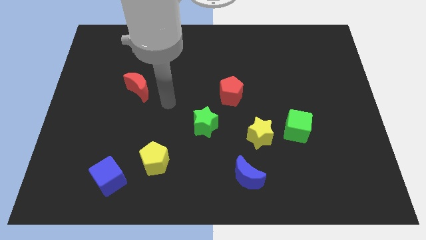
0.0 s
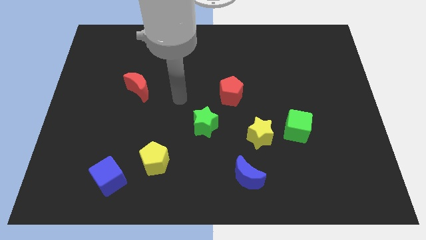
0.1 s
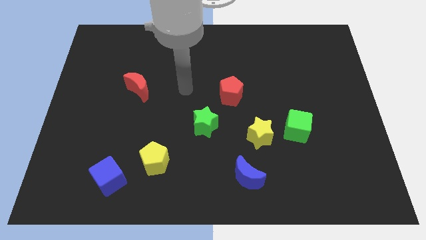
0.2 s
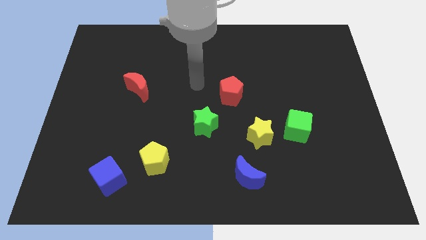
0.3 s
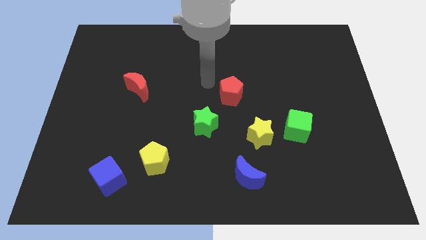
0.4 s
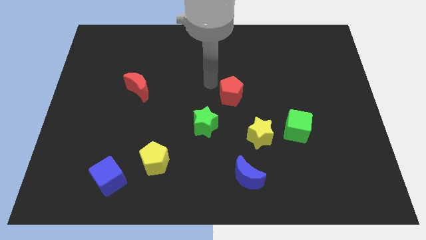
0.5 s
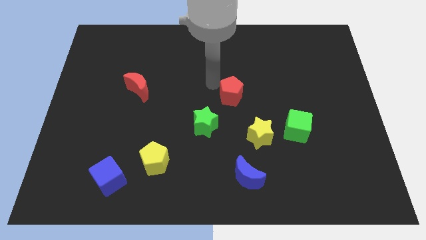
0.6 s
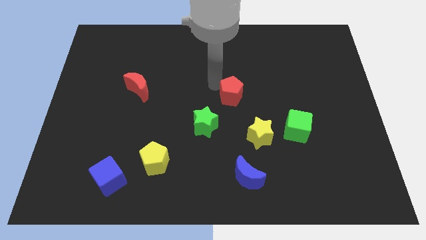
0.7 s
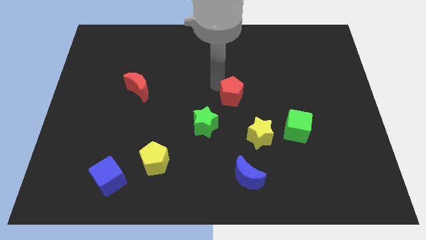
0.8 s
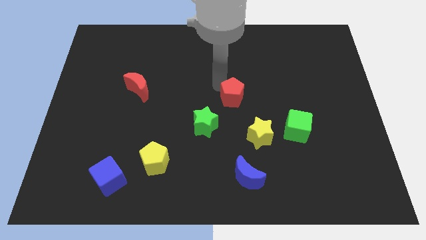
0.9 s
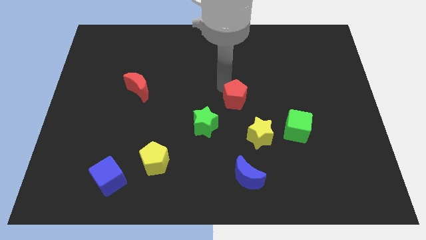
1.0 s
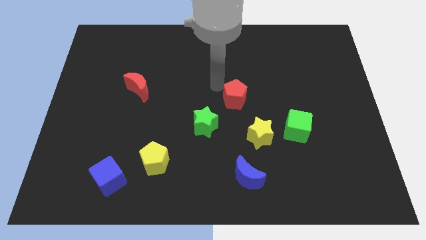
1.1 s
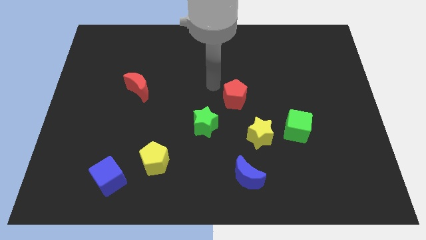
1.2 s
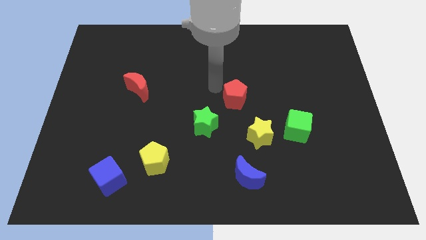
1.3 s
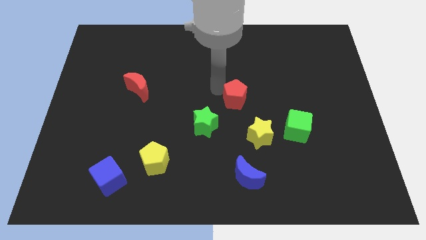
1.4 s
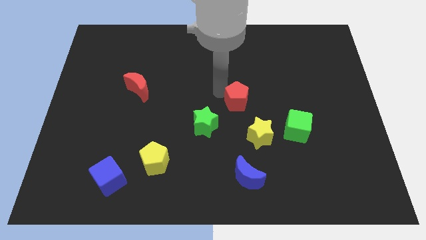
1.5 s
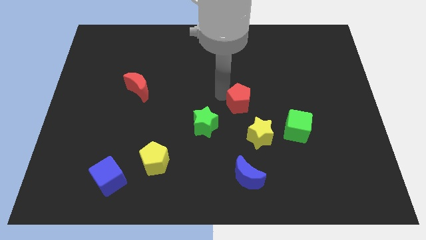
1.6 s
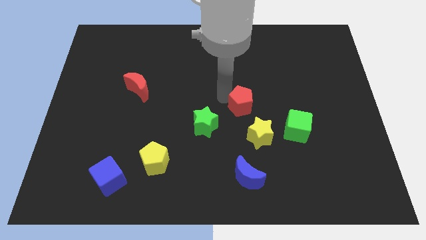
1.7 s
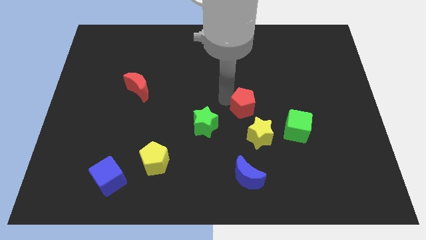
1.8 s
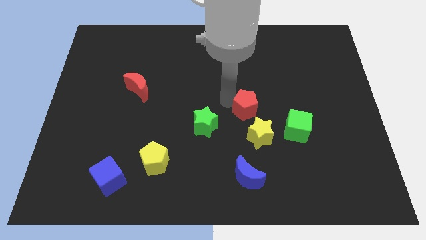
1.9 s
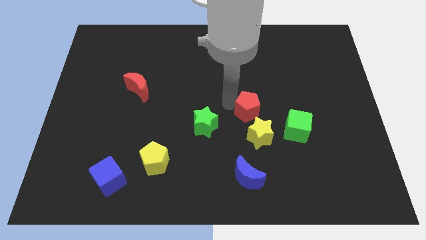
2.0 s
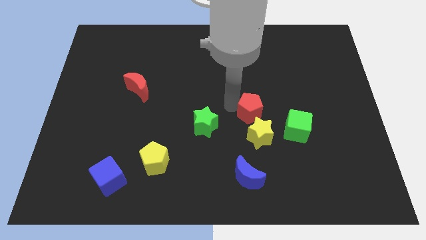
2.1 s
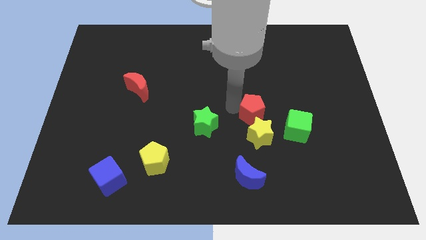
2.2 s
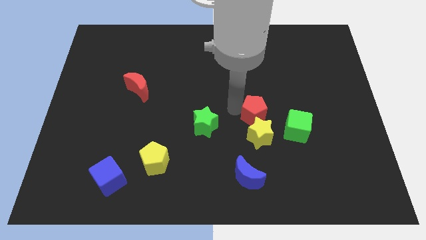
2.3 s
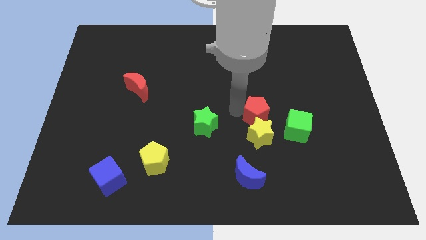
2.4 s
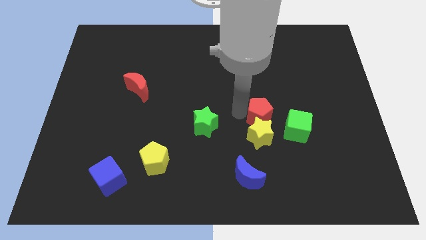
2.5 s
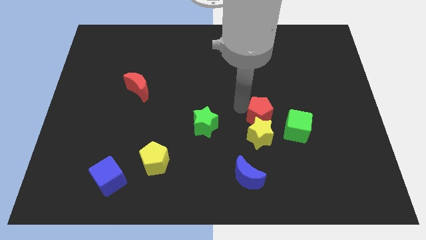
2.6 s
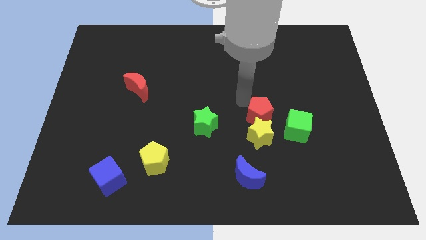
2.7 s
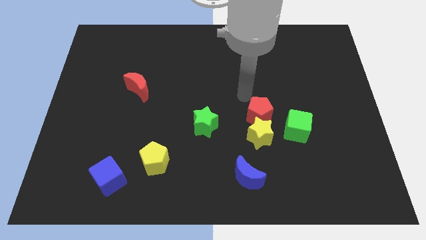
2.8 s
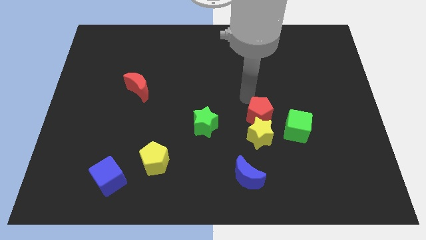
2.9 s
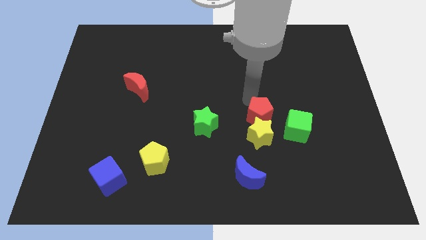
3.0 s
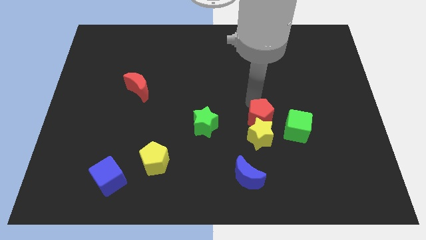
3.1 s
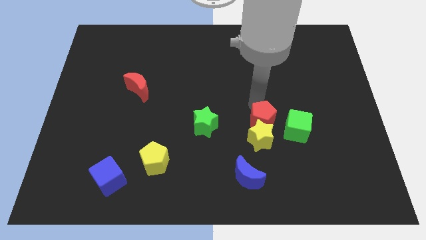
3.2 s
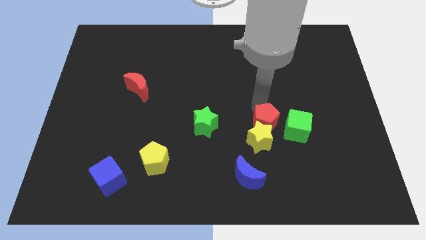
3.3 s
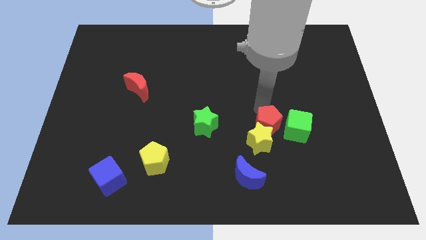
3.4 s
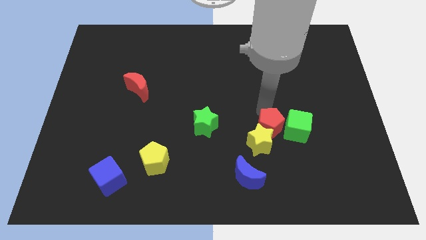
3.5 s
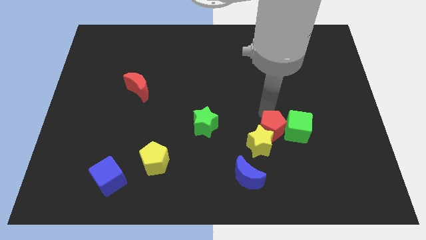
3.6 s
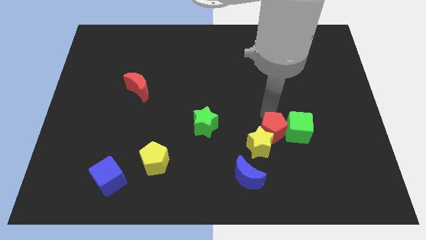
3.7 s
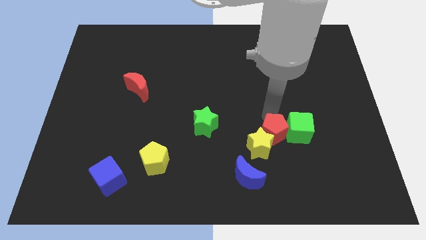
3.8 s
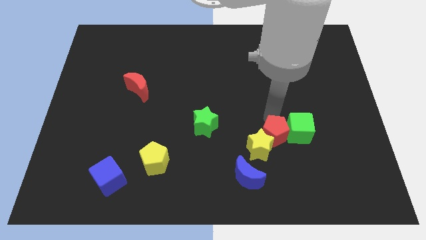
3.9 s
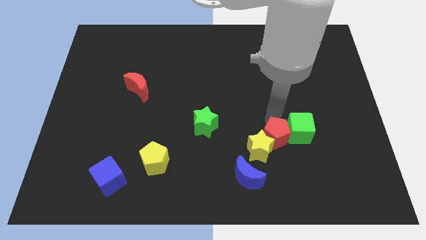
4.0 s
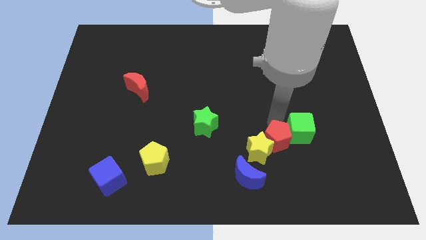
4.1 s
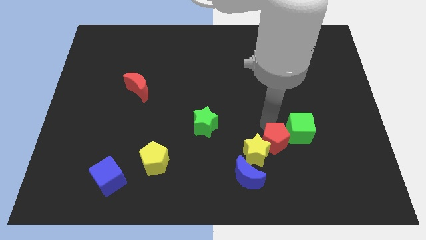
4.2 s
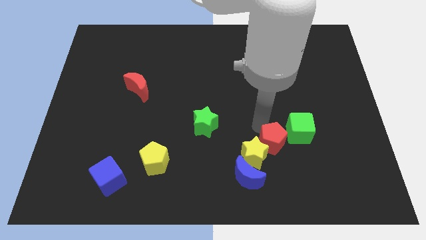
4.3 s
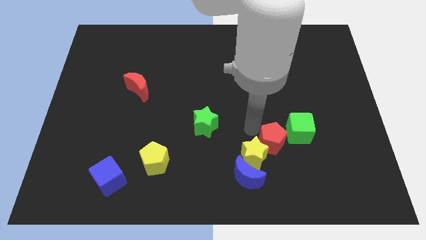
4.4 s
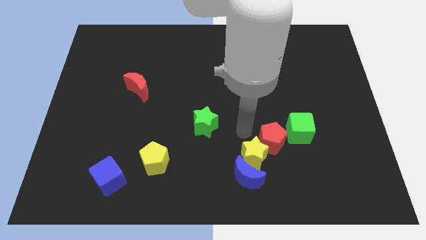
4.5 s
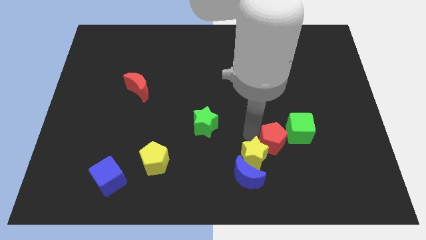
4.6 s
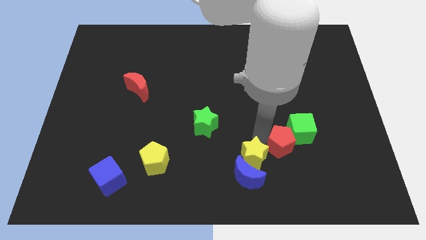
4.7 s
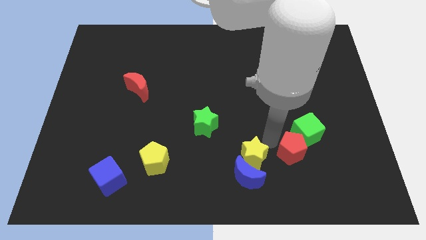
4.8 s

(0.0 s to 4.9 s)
push the red pentagon downwards and to the right

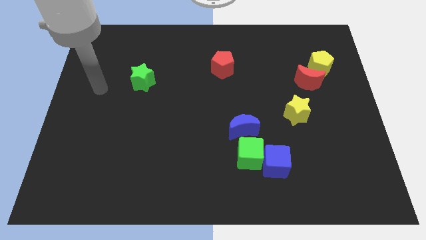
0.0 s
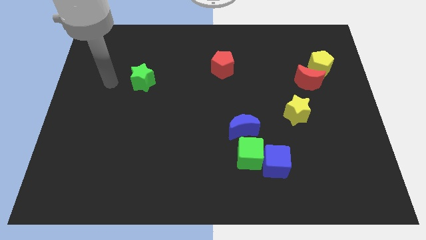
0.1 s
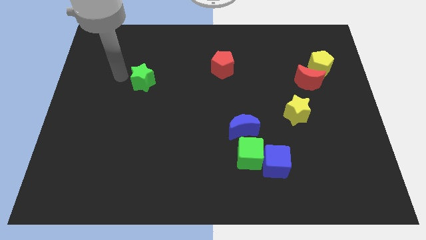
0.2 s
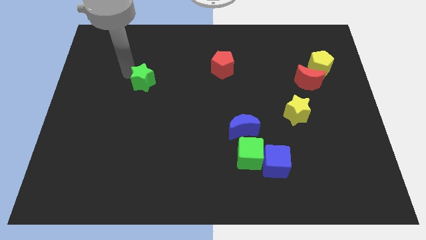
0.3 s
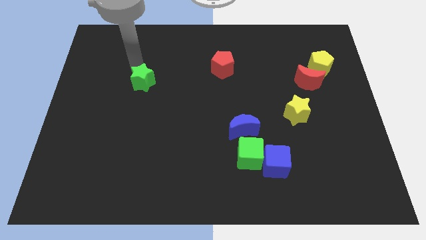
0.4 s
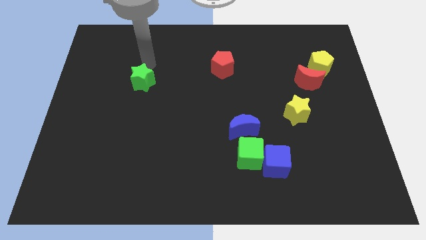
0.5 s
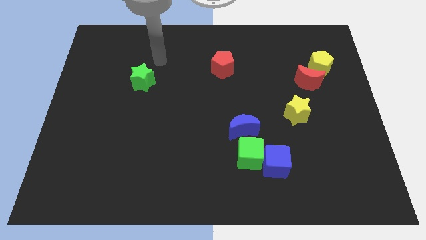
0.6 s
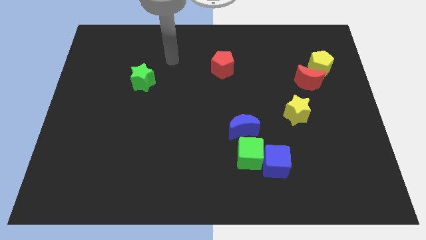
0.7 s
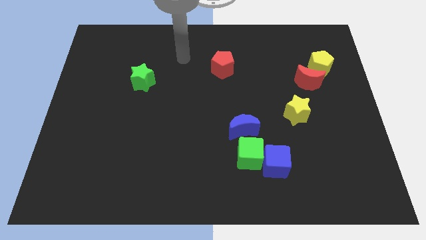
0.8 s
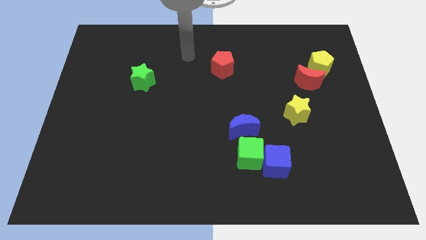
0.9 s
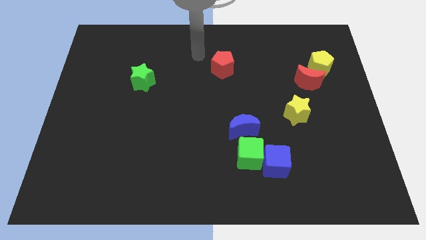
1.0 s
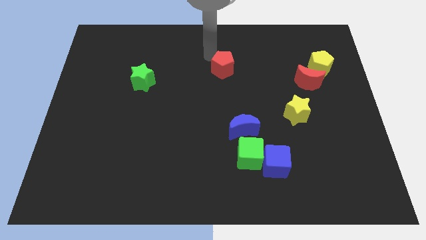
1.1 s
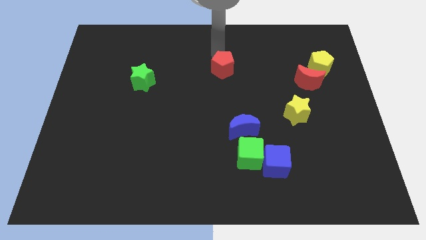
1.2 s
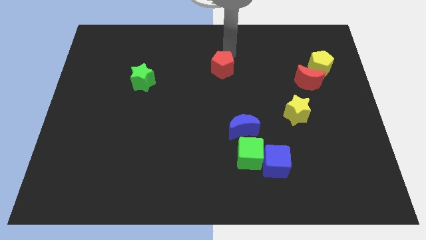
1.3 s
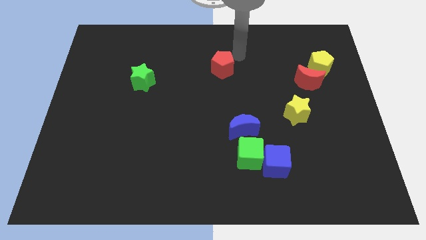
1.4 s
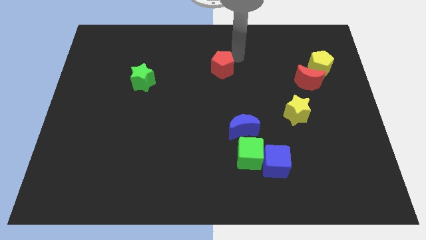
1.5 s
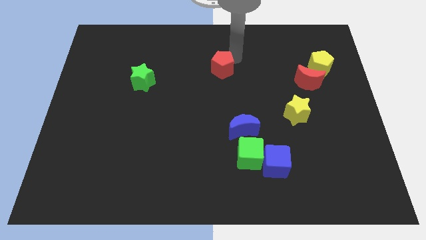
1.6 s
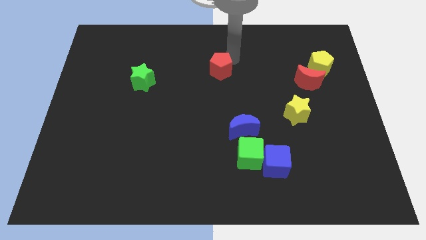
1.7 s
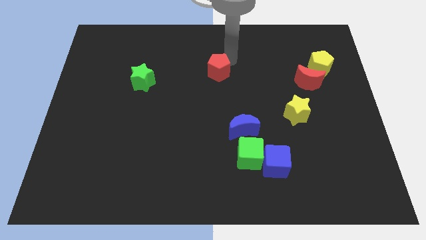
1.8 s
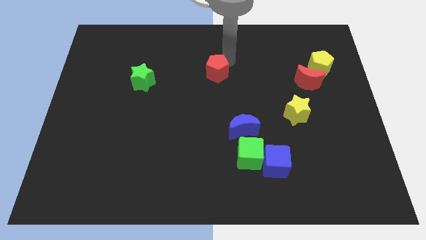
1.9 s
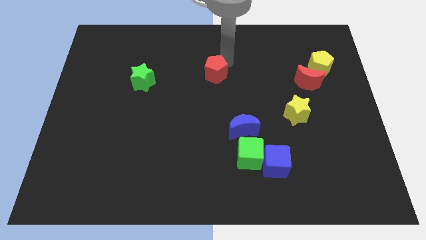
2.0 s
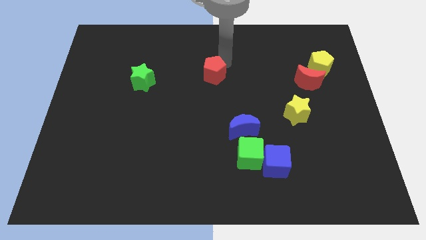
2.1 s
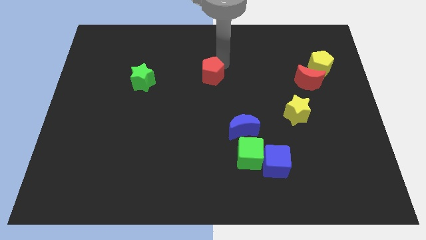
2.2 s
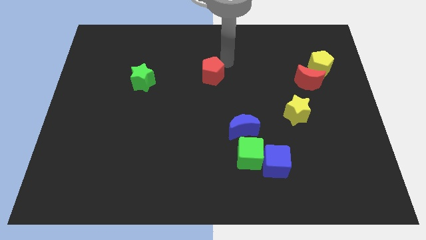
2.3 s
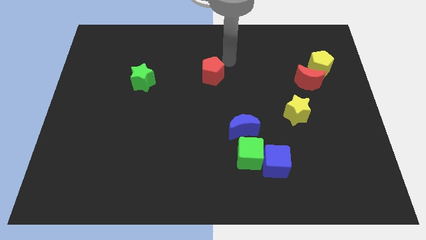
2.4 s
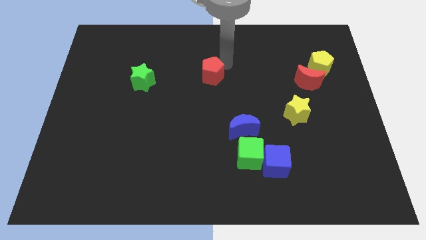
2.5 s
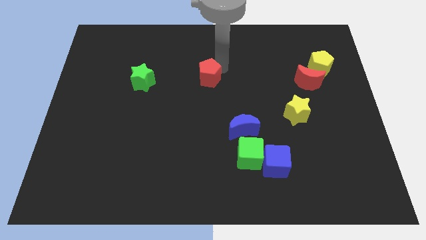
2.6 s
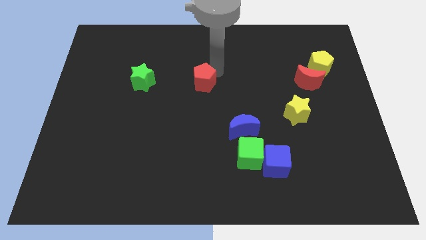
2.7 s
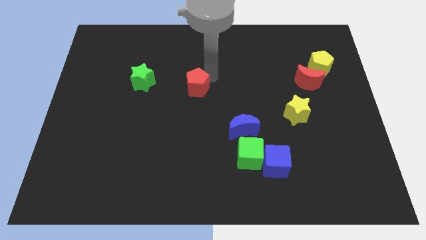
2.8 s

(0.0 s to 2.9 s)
slightly slide the red pentagon down and to the left

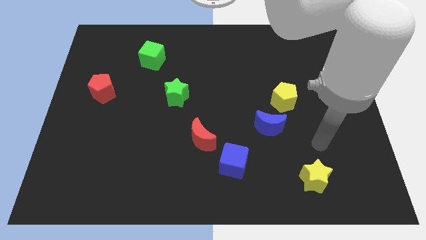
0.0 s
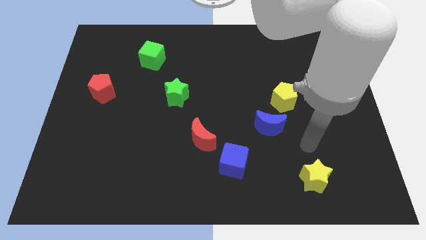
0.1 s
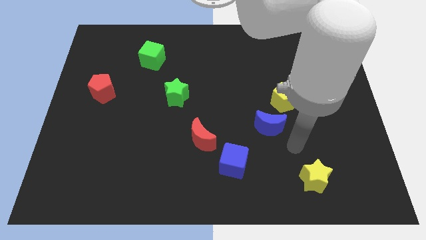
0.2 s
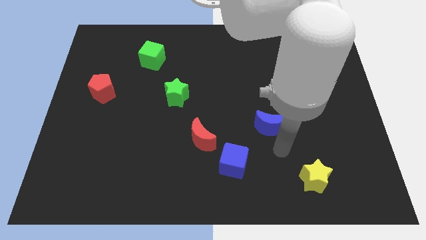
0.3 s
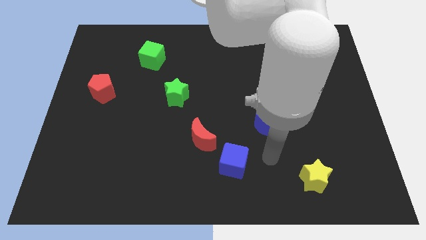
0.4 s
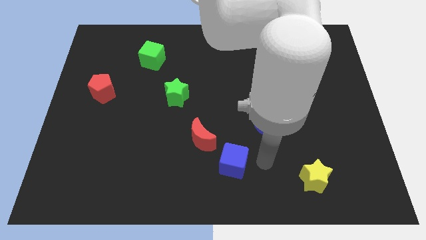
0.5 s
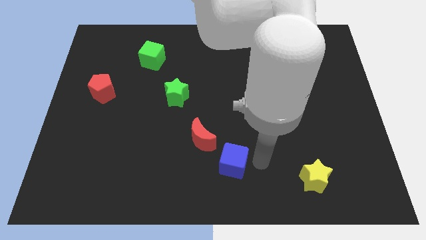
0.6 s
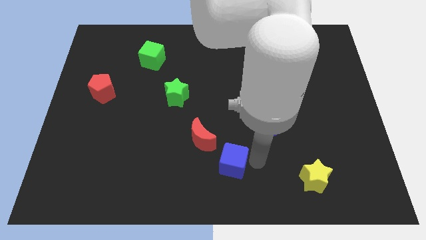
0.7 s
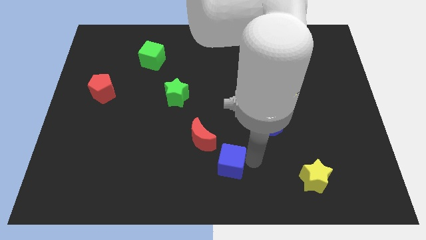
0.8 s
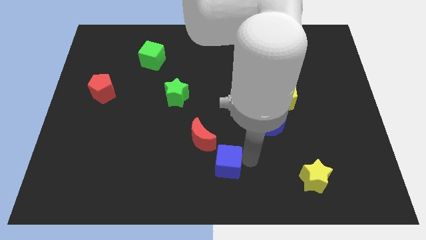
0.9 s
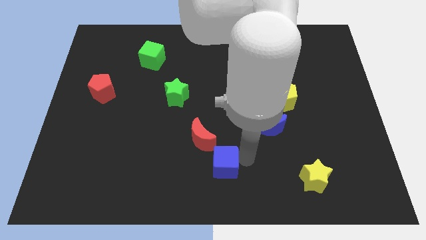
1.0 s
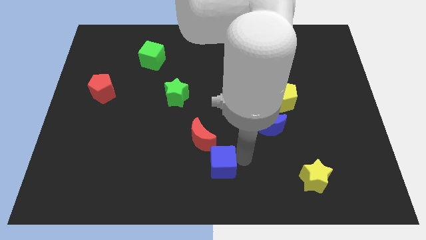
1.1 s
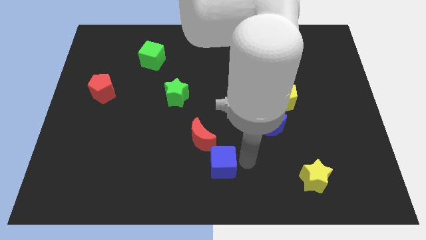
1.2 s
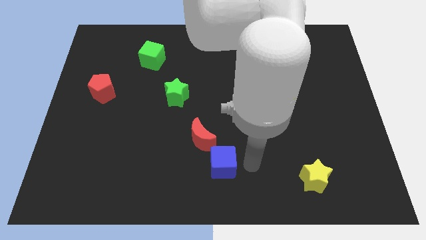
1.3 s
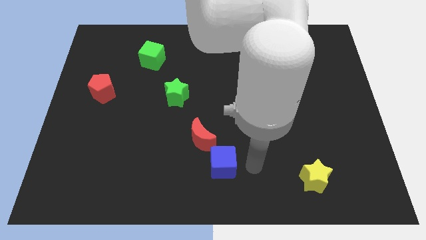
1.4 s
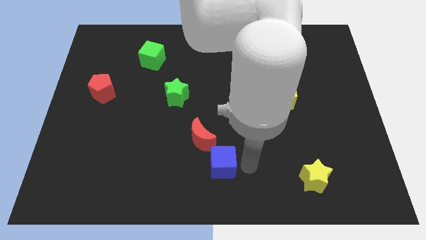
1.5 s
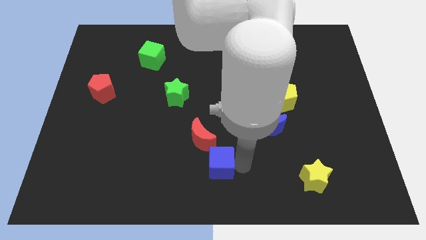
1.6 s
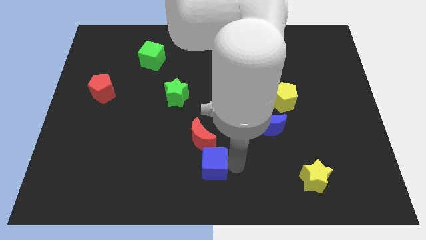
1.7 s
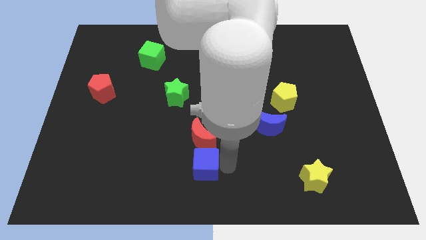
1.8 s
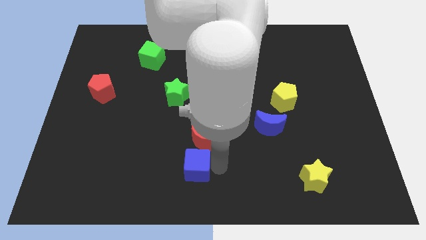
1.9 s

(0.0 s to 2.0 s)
move the blue cube a bit left
